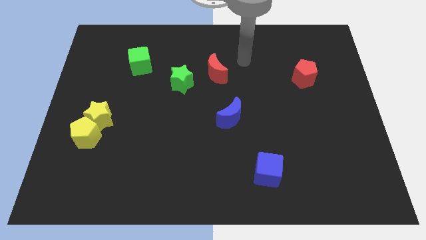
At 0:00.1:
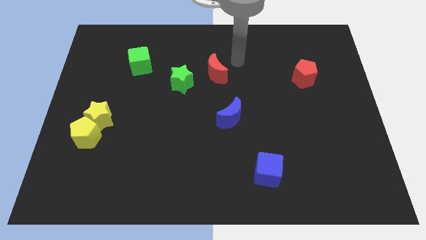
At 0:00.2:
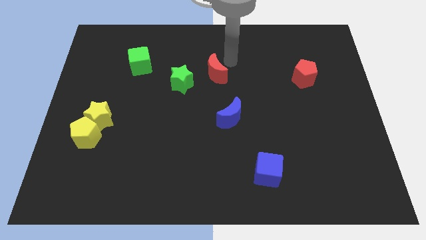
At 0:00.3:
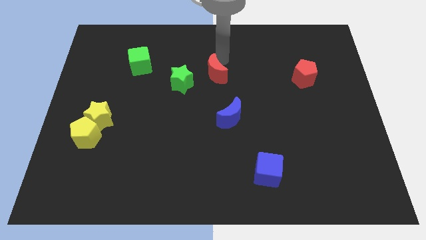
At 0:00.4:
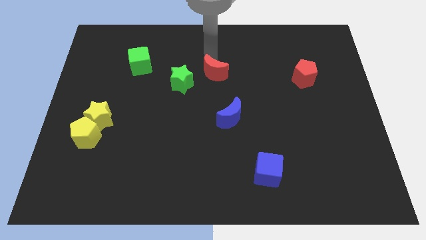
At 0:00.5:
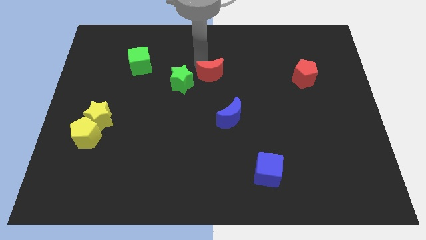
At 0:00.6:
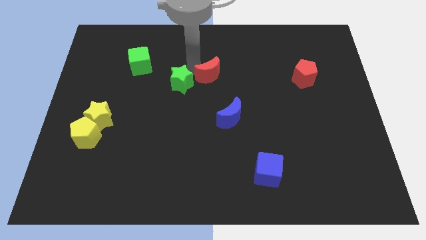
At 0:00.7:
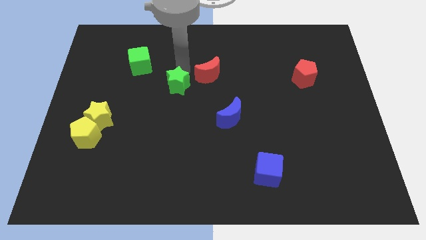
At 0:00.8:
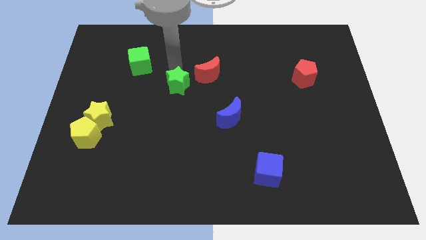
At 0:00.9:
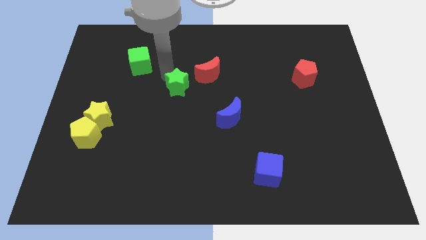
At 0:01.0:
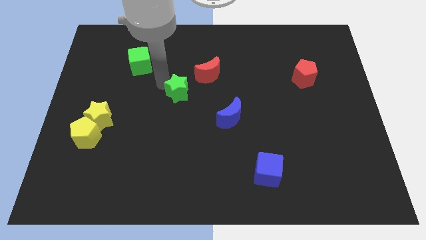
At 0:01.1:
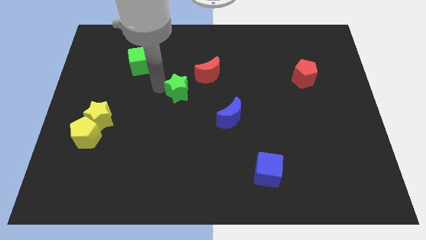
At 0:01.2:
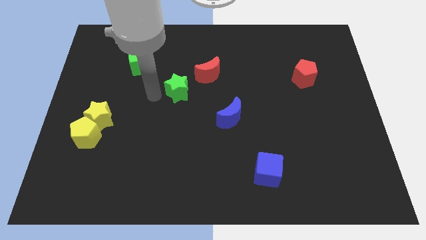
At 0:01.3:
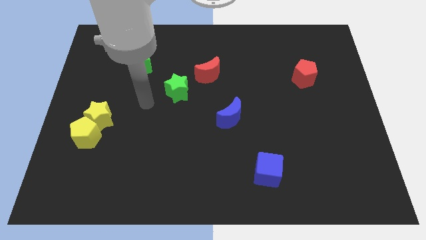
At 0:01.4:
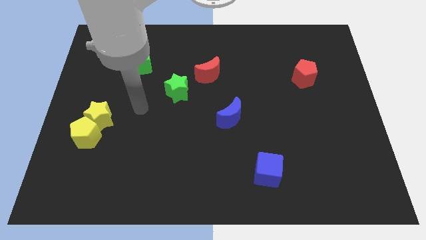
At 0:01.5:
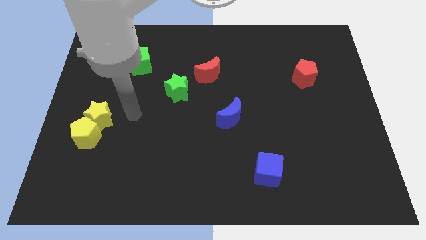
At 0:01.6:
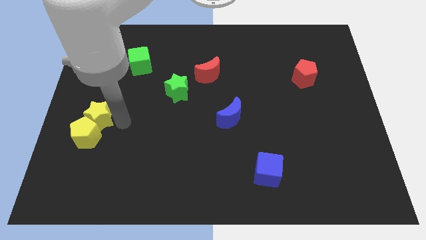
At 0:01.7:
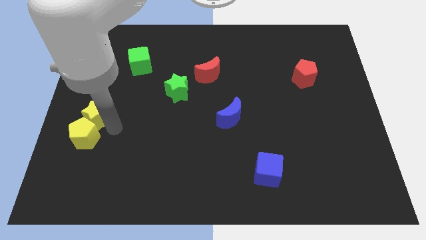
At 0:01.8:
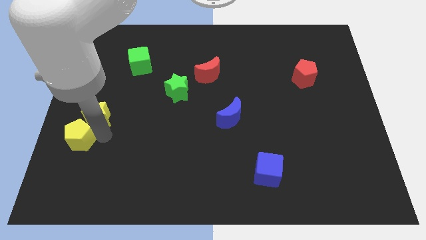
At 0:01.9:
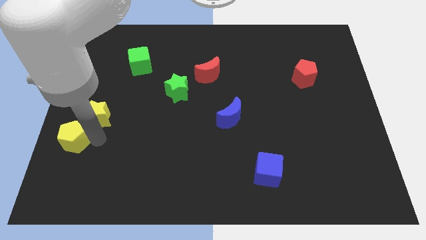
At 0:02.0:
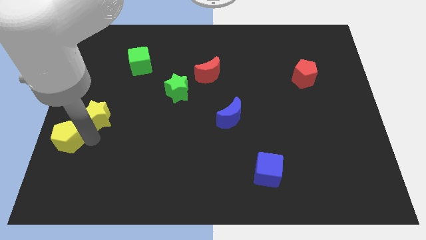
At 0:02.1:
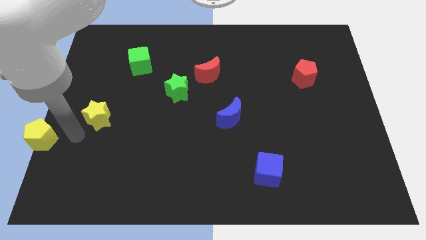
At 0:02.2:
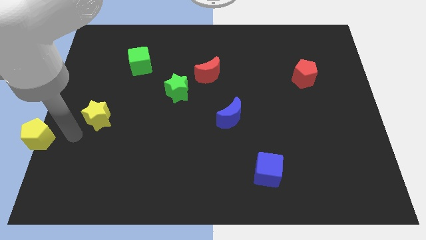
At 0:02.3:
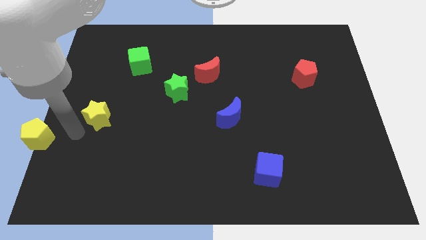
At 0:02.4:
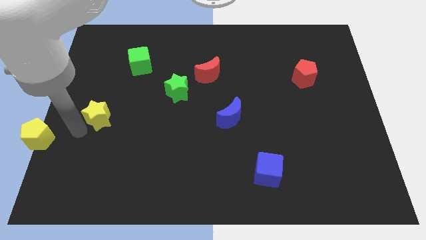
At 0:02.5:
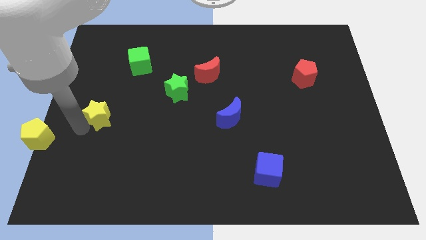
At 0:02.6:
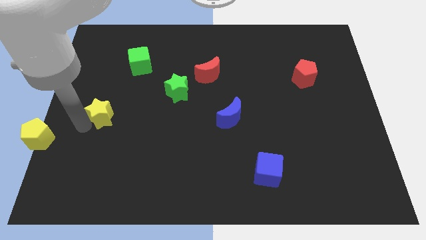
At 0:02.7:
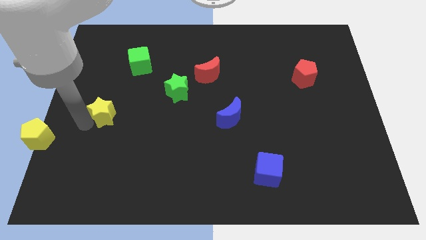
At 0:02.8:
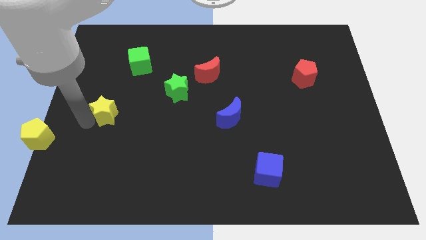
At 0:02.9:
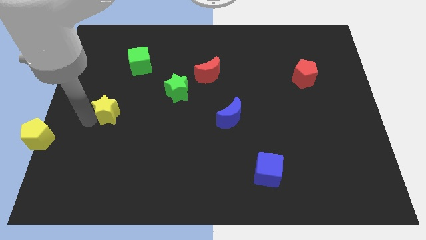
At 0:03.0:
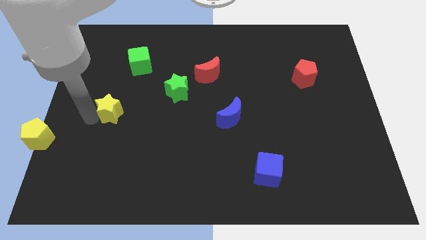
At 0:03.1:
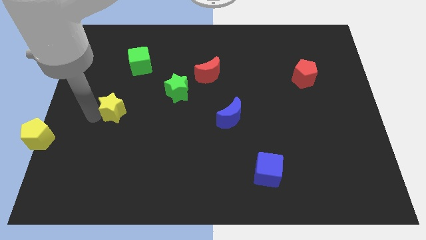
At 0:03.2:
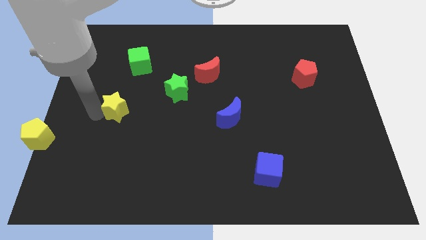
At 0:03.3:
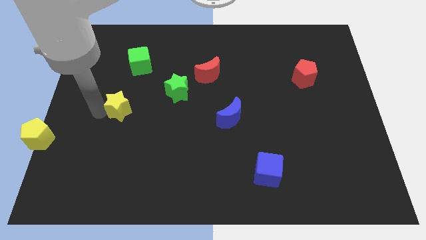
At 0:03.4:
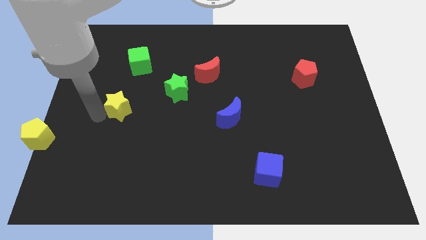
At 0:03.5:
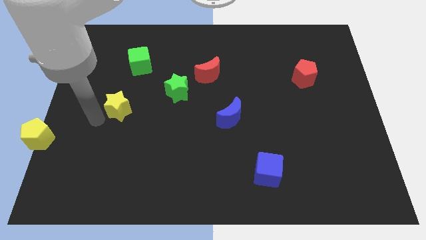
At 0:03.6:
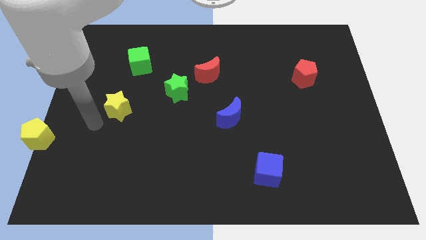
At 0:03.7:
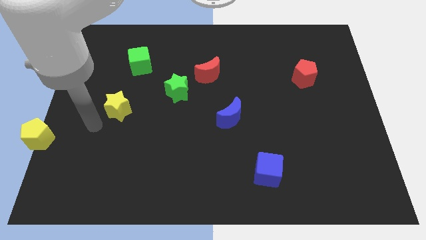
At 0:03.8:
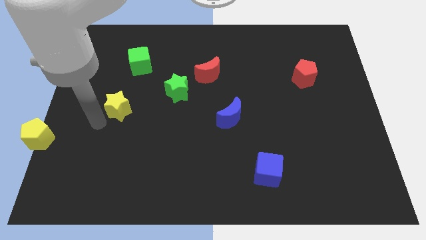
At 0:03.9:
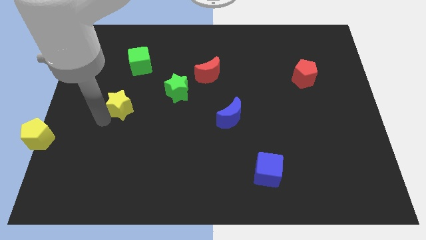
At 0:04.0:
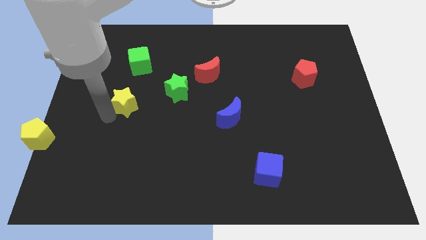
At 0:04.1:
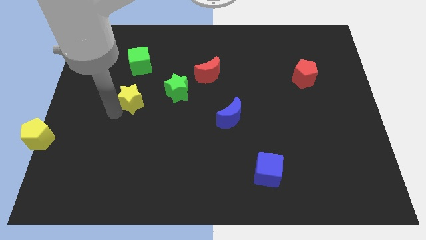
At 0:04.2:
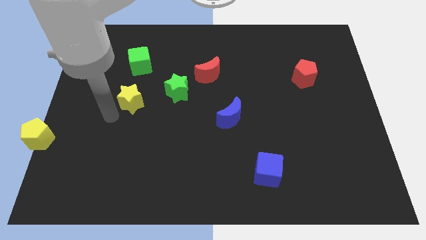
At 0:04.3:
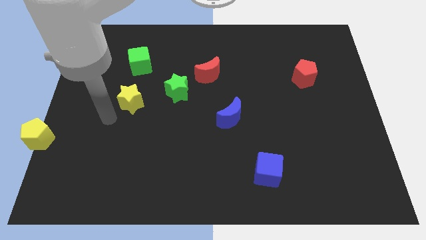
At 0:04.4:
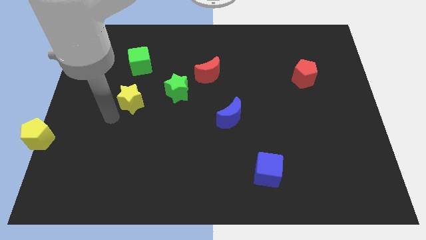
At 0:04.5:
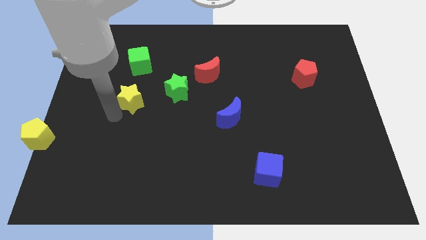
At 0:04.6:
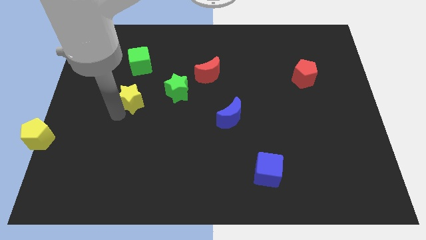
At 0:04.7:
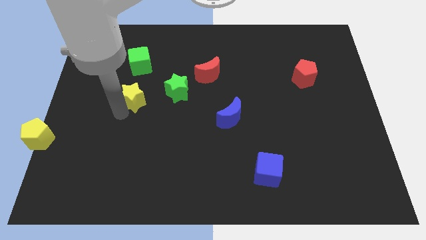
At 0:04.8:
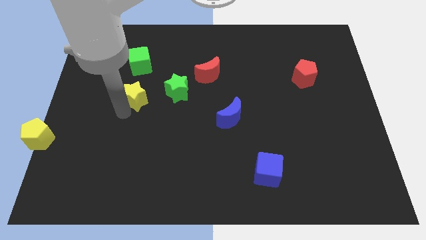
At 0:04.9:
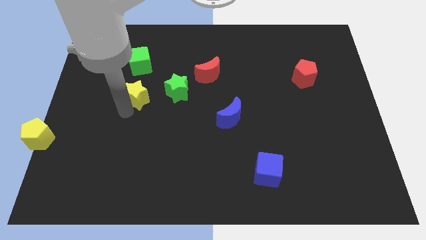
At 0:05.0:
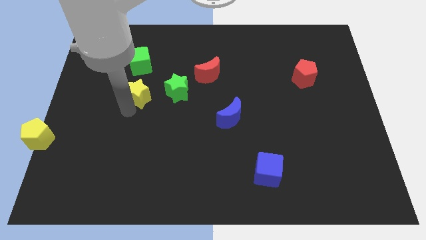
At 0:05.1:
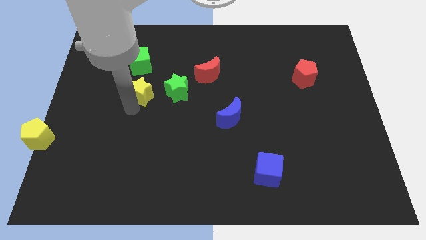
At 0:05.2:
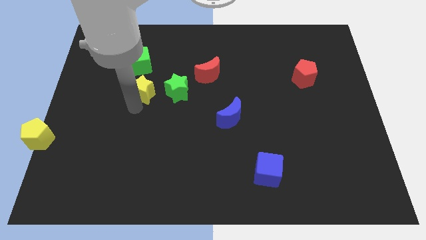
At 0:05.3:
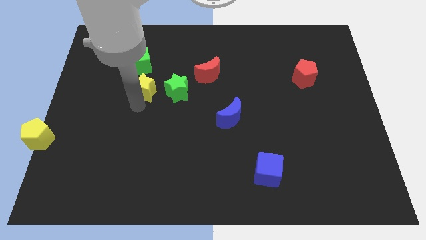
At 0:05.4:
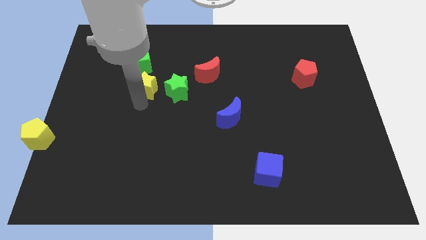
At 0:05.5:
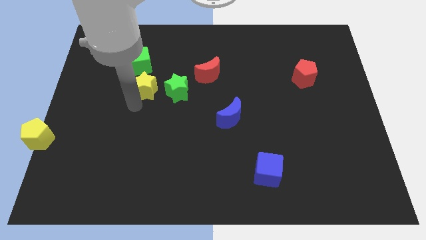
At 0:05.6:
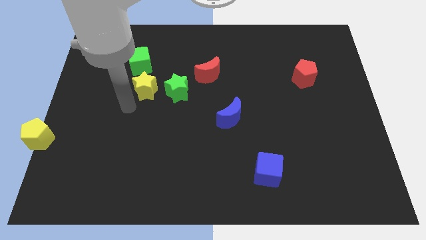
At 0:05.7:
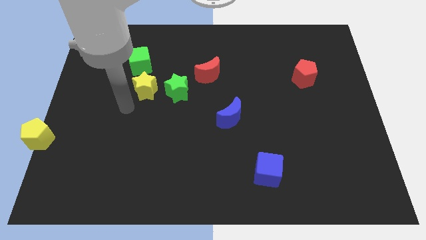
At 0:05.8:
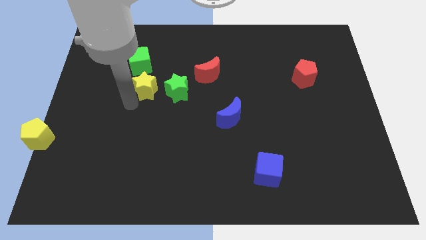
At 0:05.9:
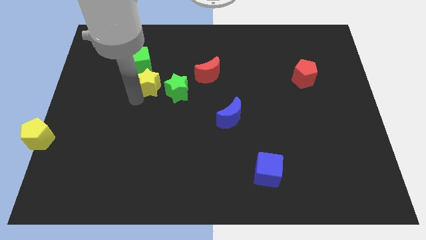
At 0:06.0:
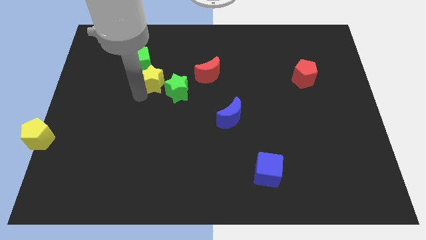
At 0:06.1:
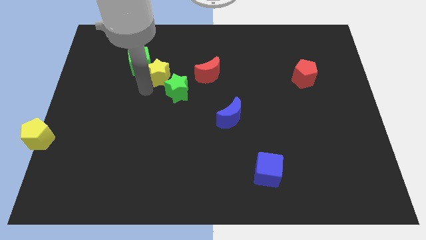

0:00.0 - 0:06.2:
push the yellow star to the right of the green cube
